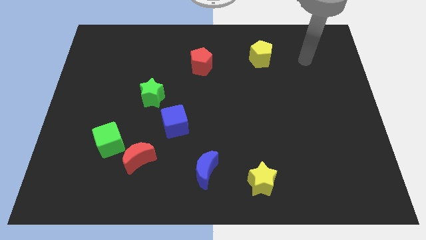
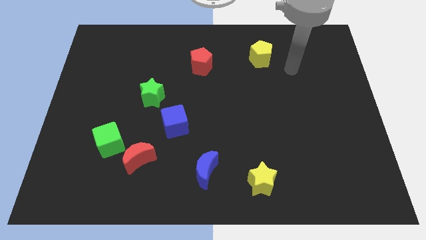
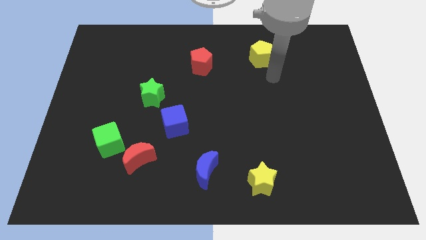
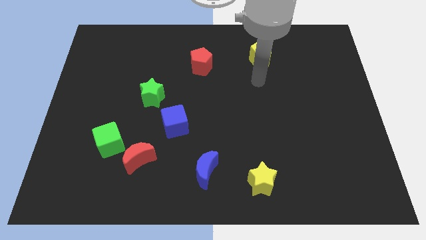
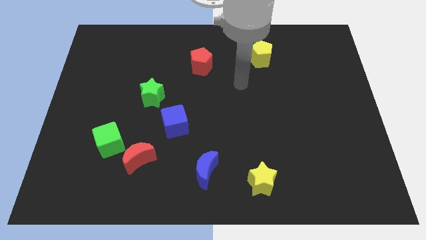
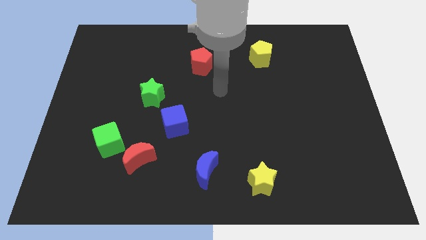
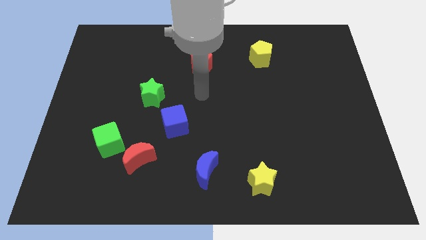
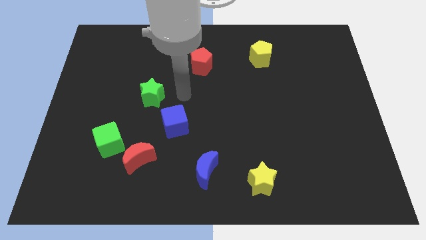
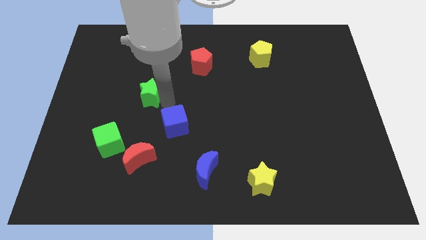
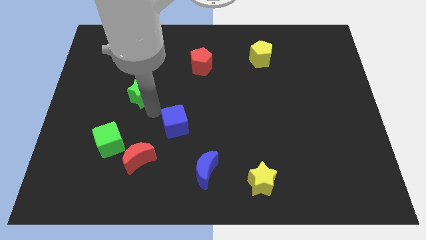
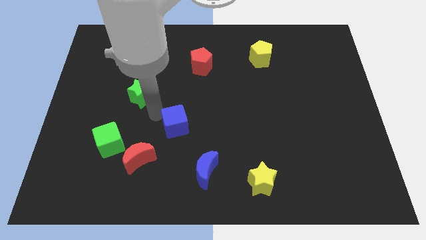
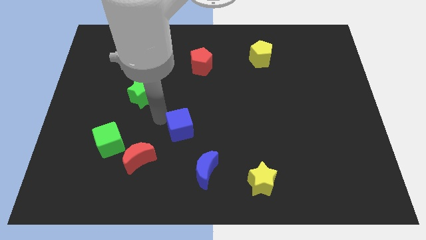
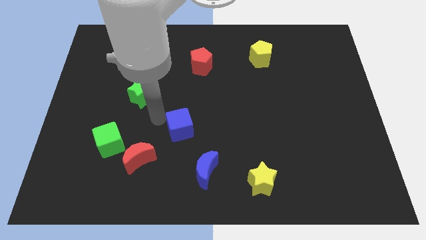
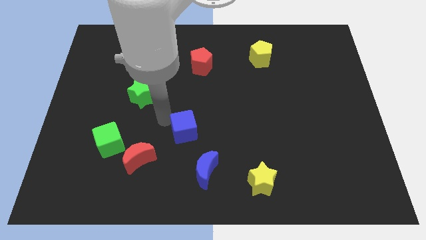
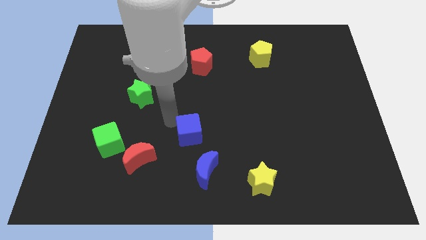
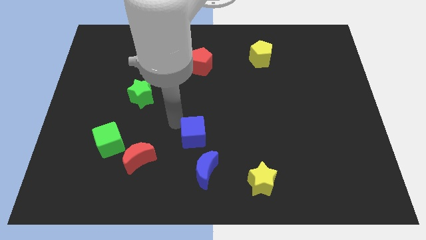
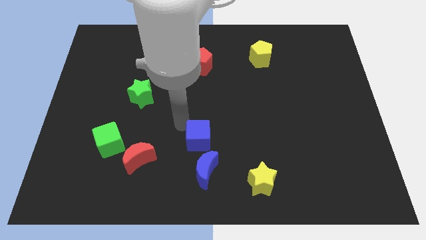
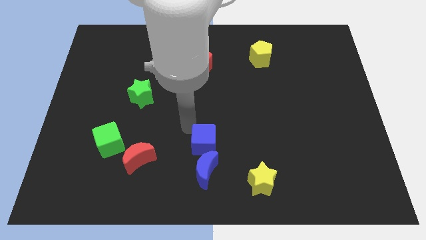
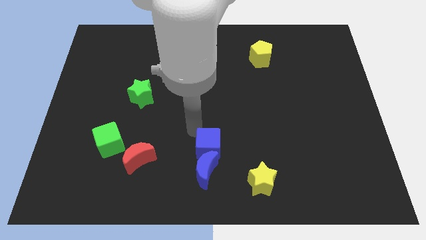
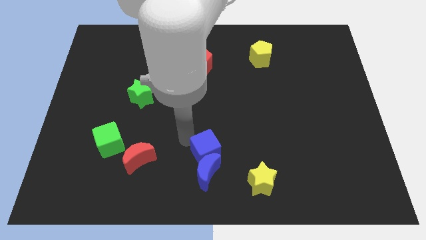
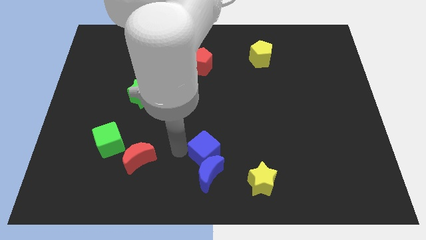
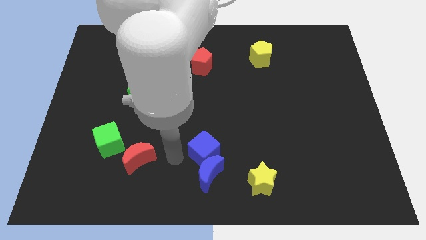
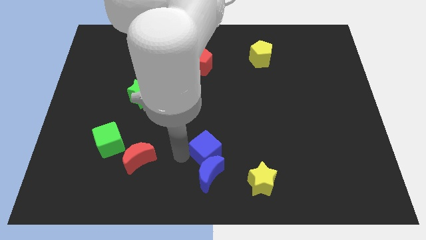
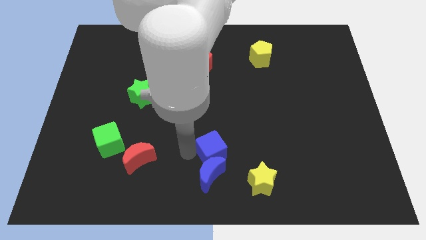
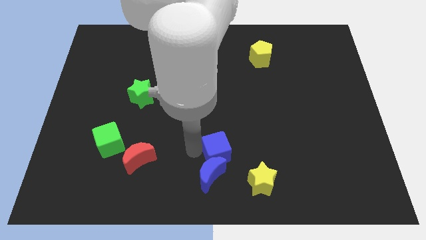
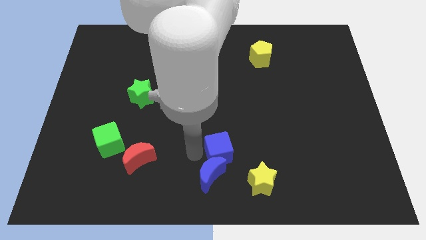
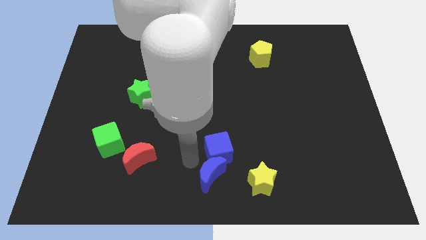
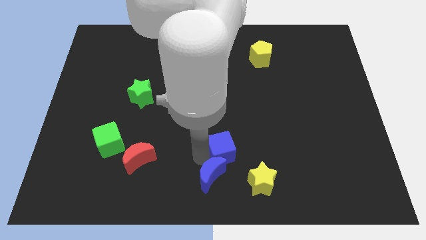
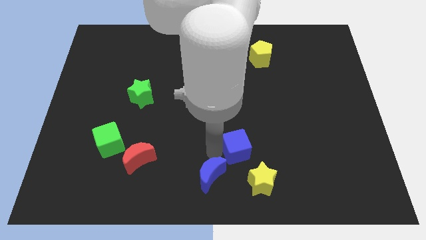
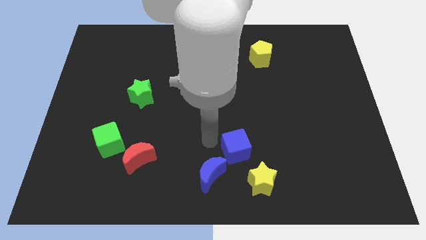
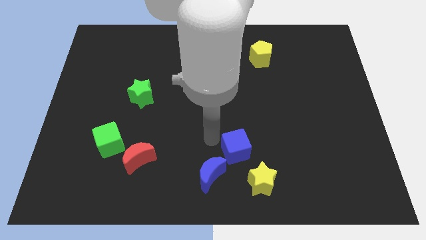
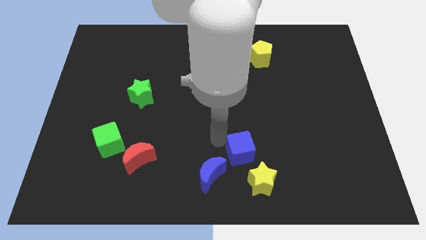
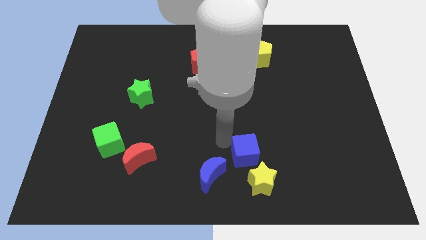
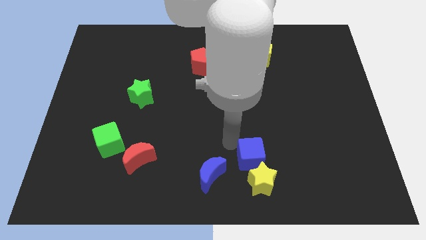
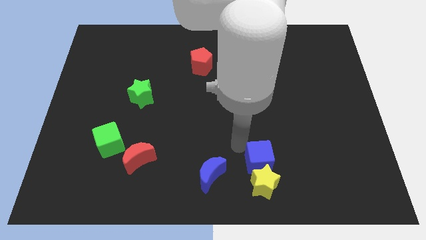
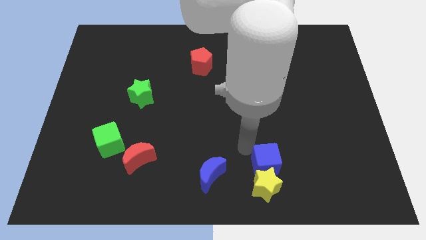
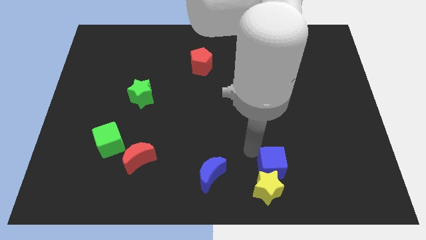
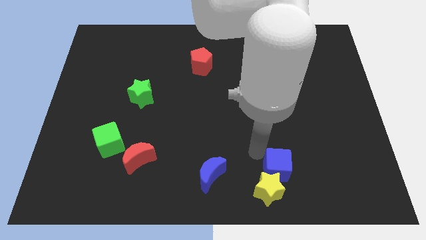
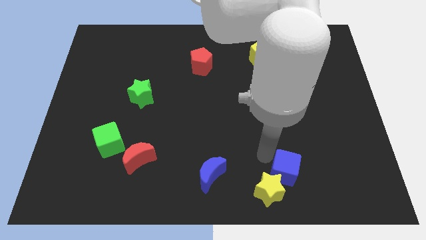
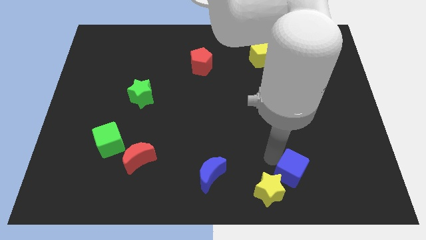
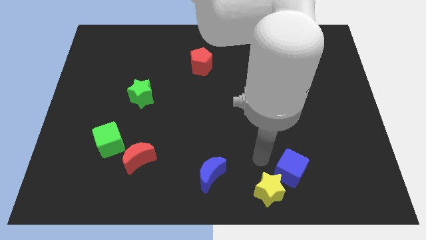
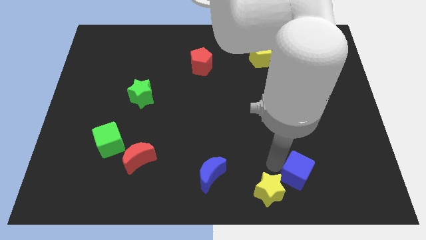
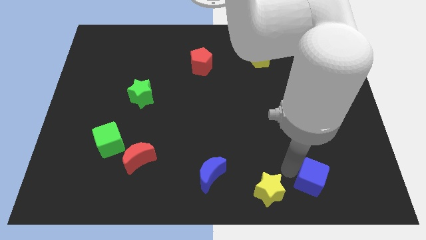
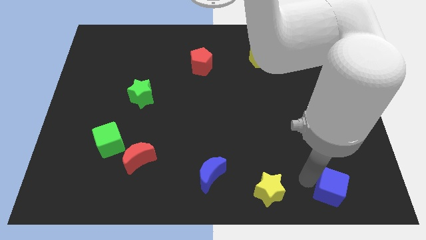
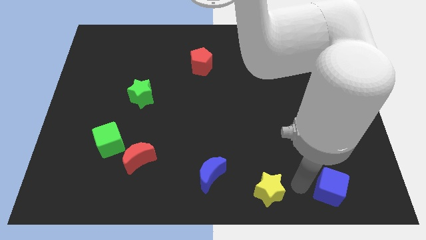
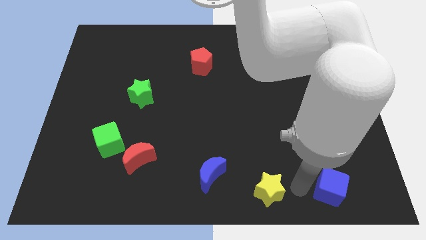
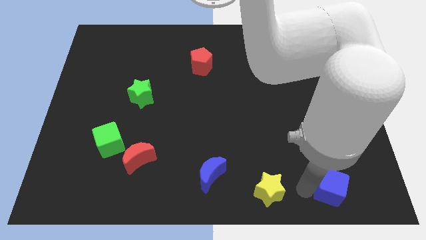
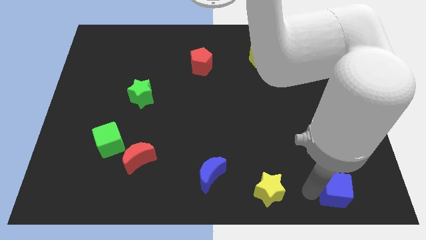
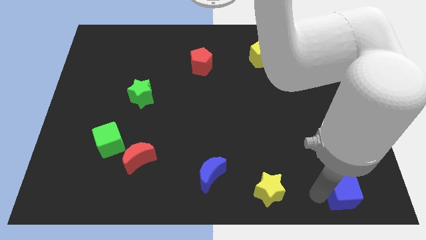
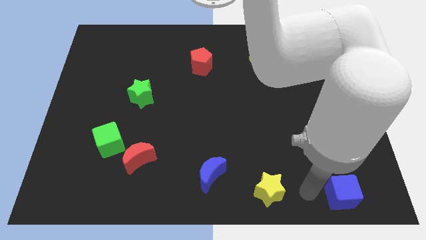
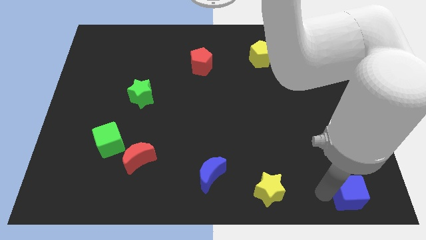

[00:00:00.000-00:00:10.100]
push the blue cube to the bottom right of the board

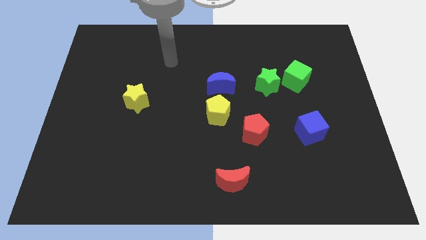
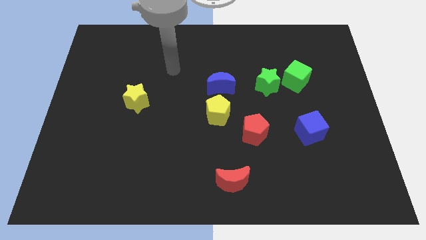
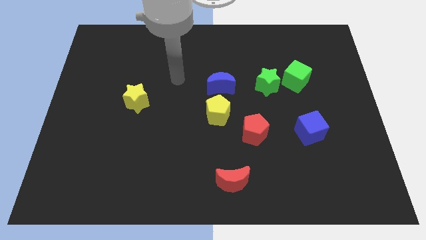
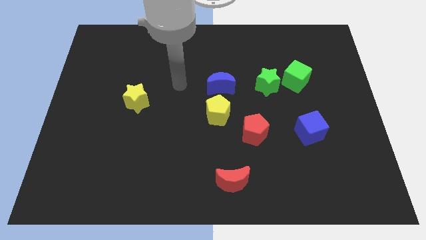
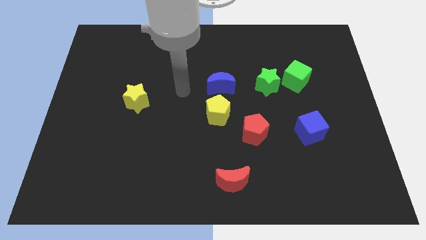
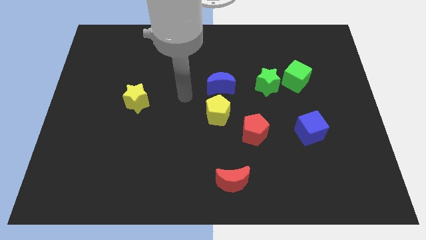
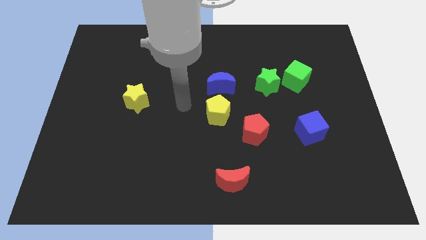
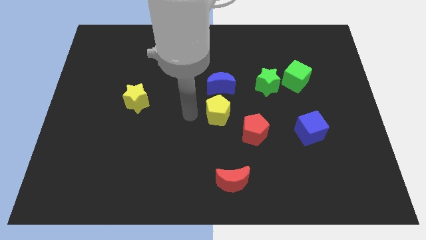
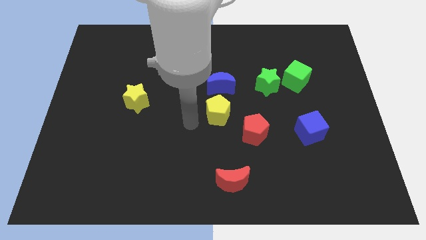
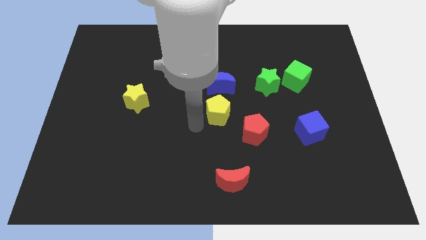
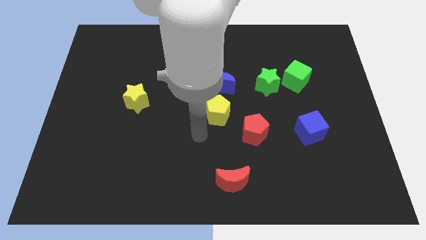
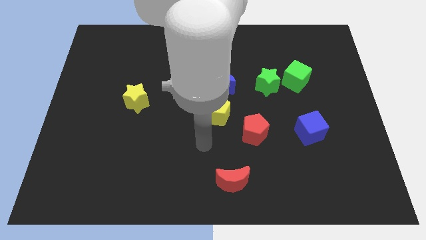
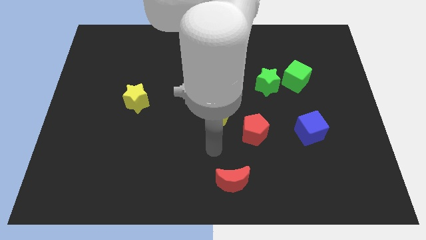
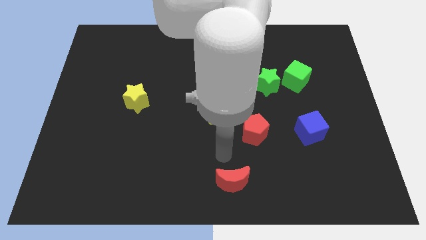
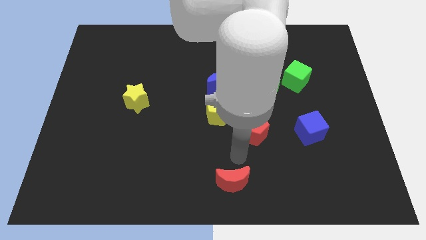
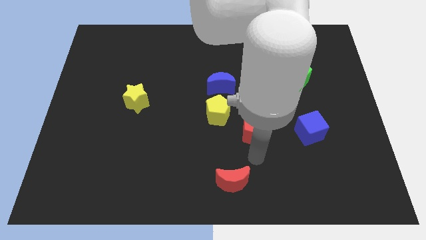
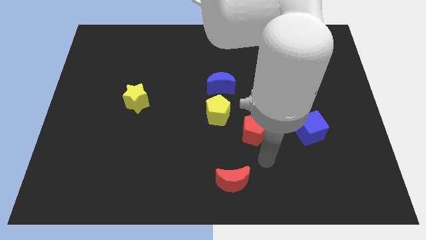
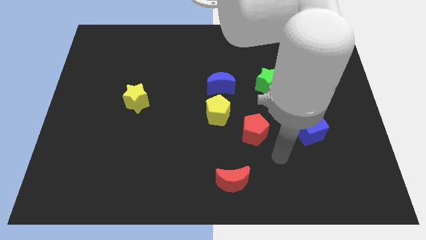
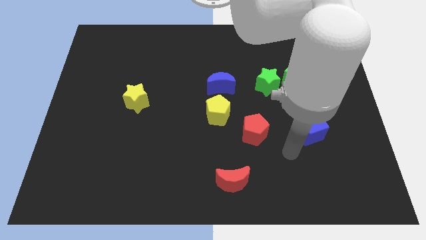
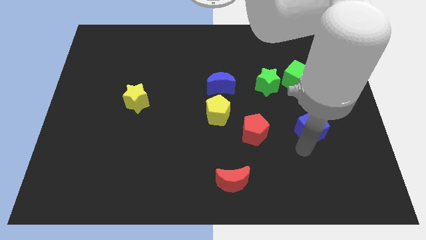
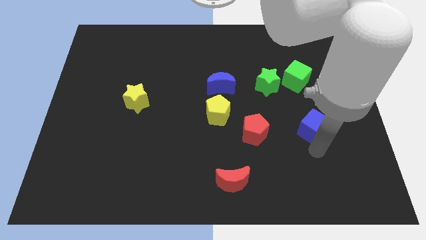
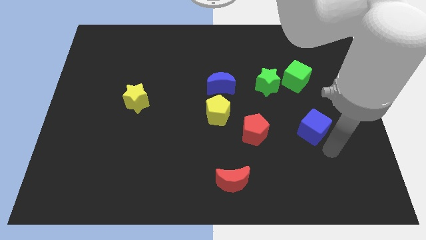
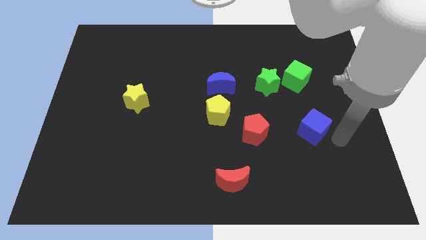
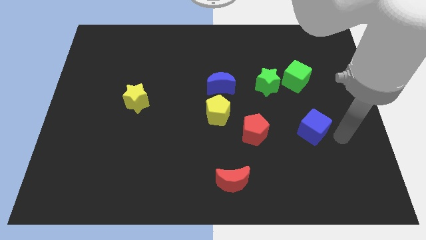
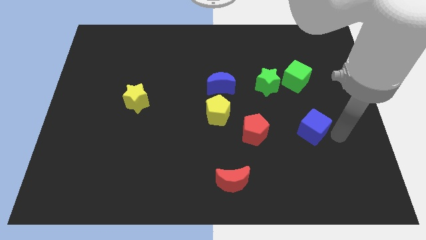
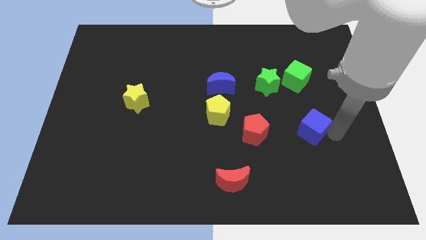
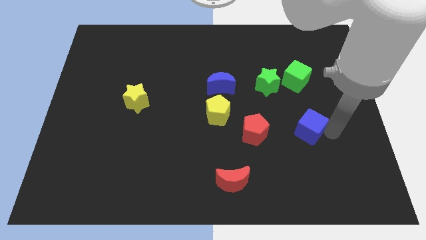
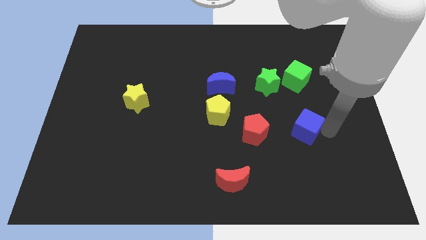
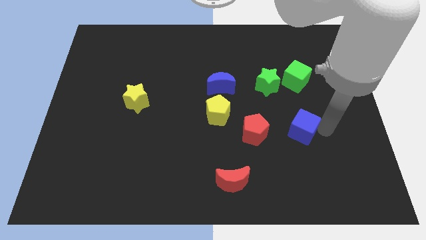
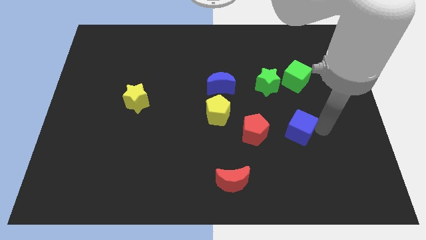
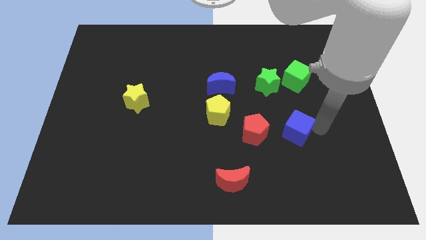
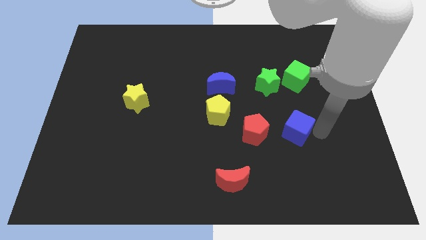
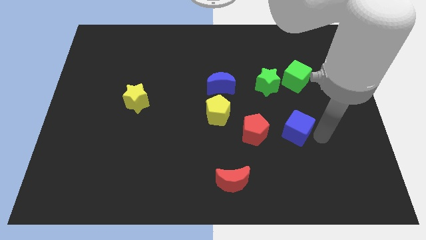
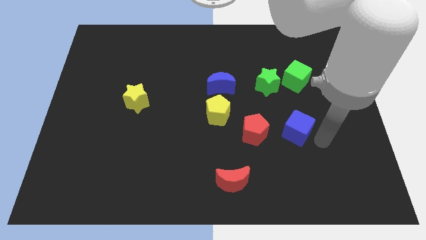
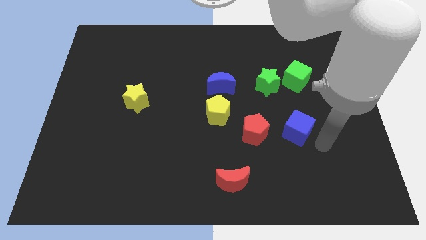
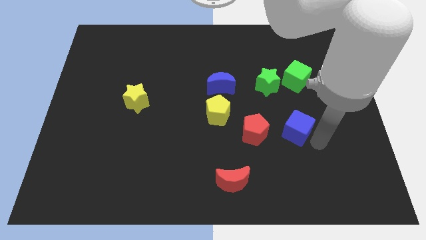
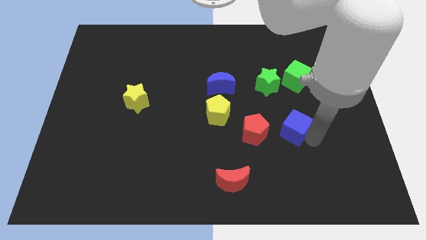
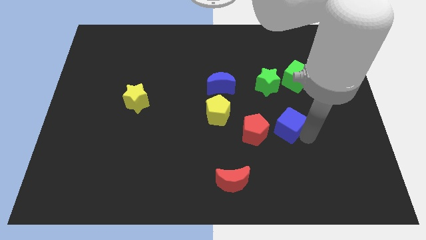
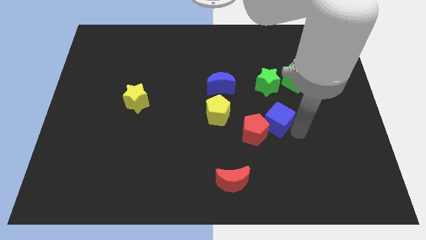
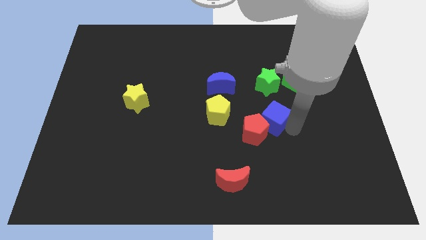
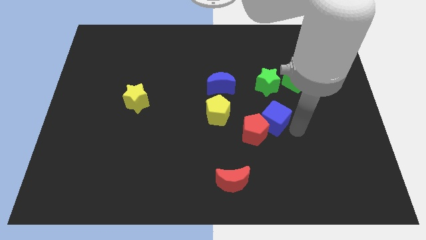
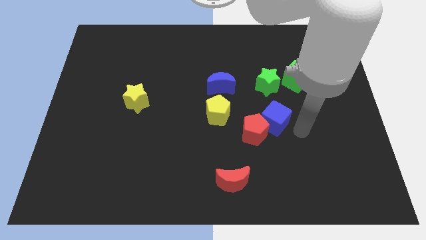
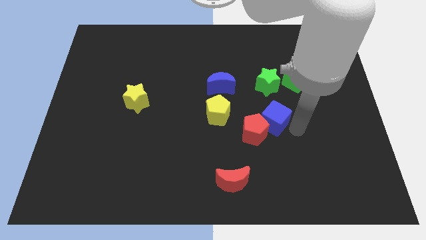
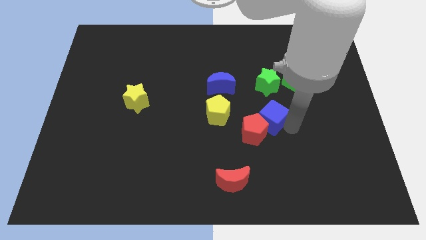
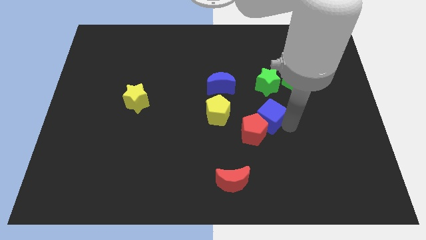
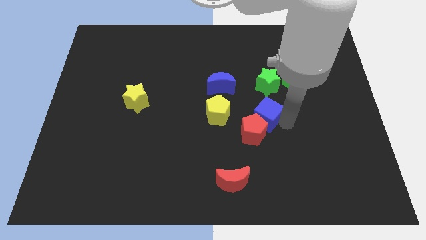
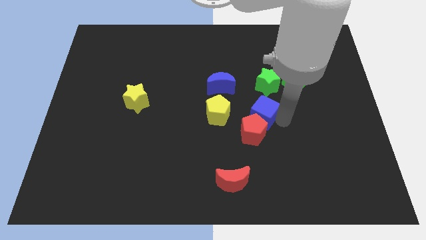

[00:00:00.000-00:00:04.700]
push the blue cube to the center
